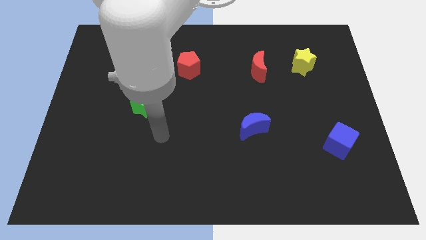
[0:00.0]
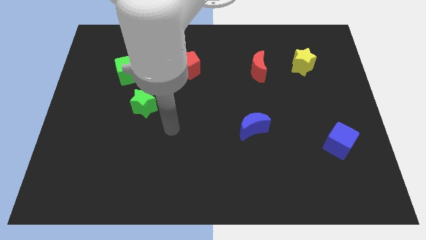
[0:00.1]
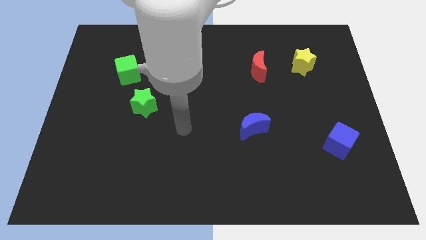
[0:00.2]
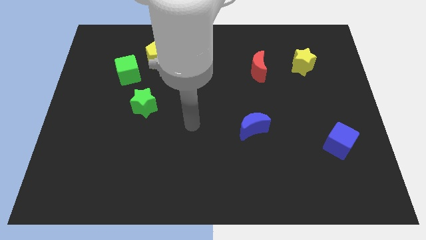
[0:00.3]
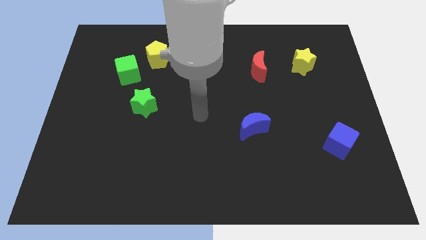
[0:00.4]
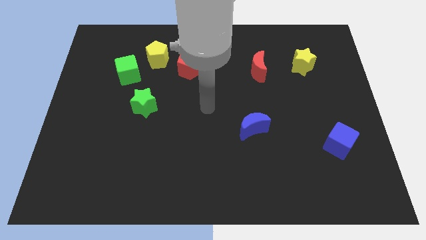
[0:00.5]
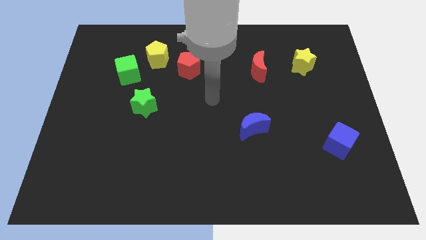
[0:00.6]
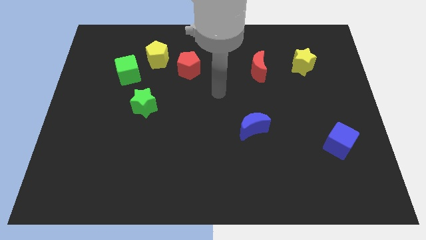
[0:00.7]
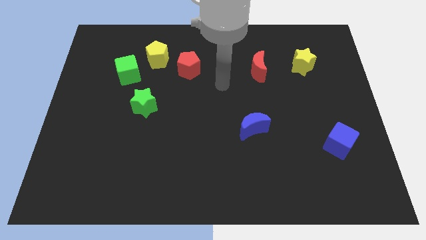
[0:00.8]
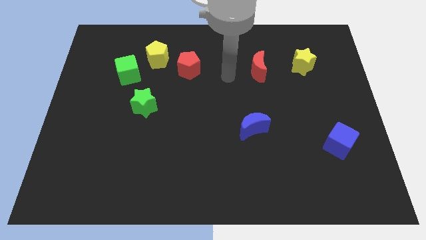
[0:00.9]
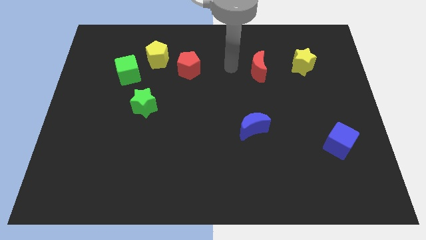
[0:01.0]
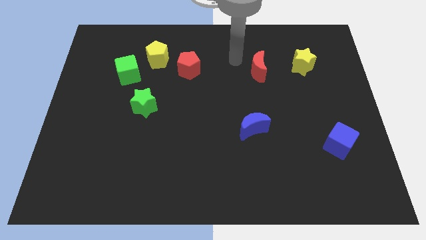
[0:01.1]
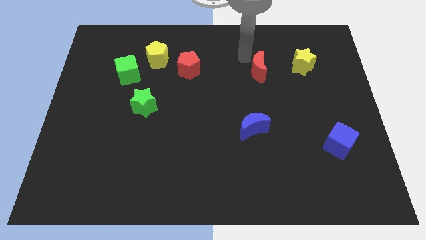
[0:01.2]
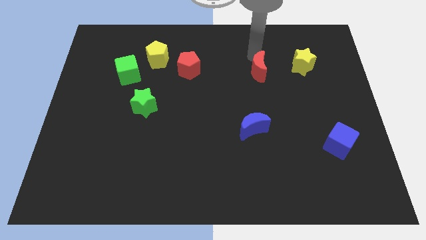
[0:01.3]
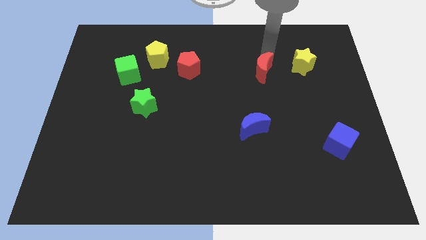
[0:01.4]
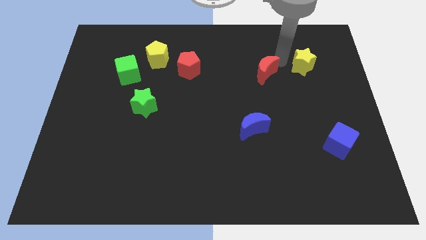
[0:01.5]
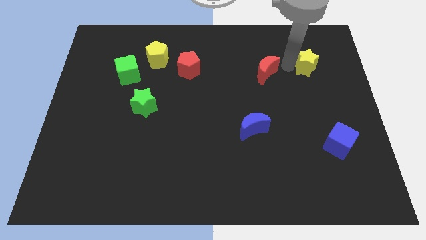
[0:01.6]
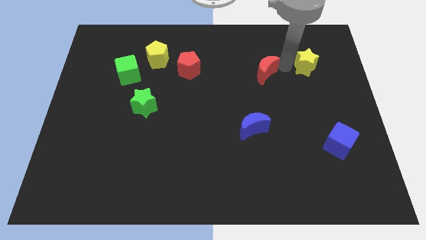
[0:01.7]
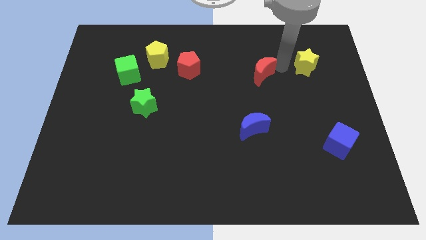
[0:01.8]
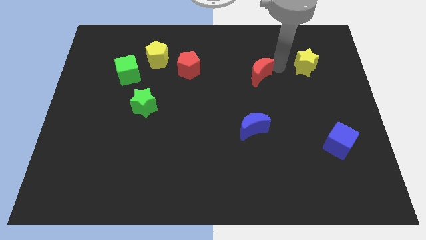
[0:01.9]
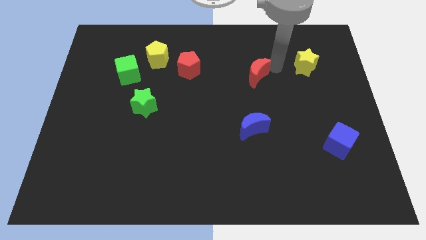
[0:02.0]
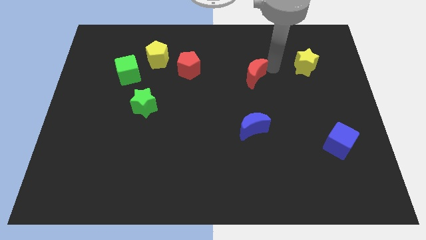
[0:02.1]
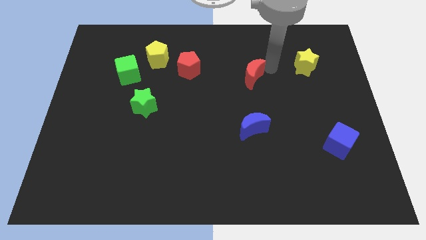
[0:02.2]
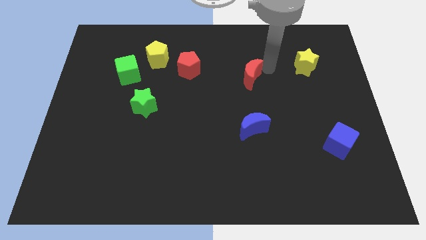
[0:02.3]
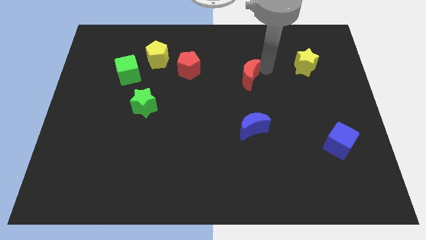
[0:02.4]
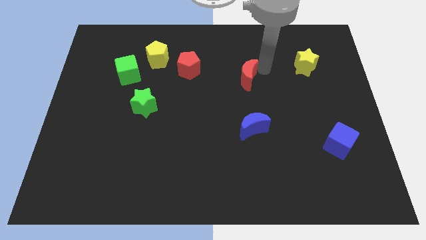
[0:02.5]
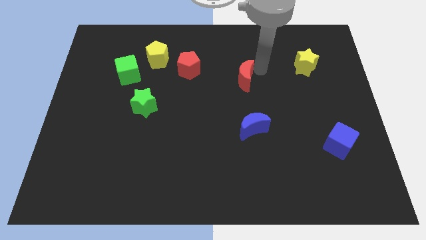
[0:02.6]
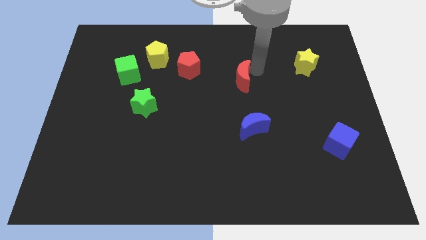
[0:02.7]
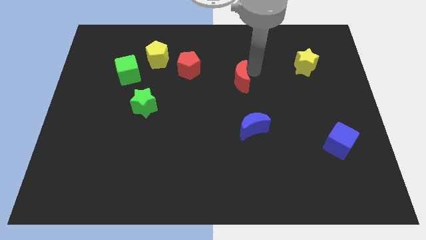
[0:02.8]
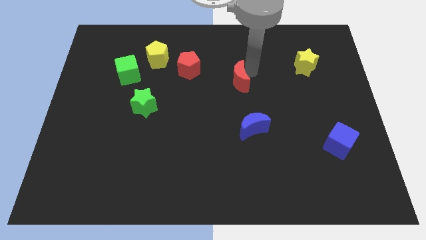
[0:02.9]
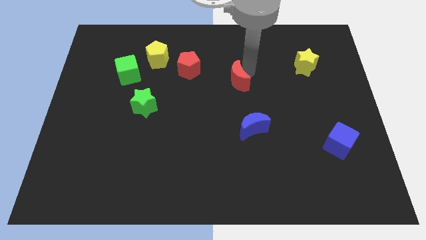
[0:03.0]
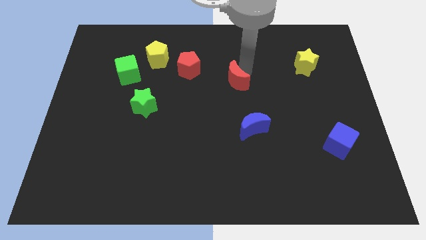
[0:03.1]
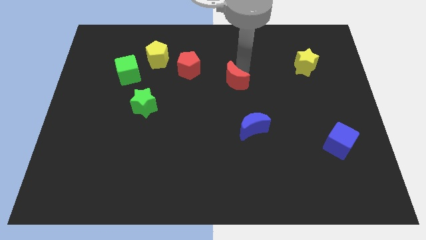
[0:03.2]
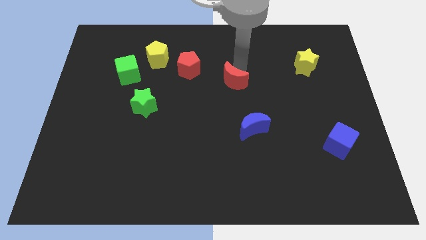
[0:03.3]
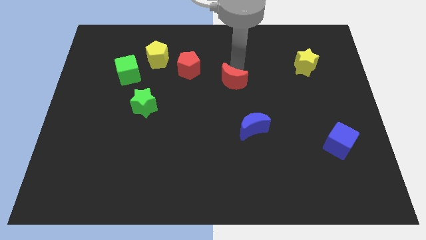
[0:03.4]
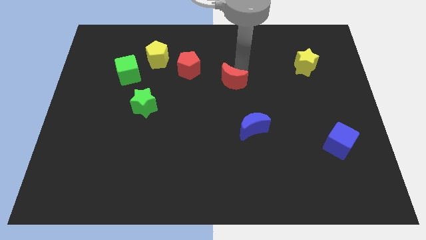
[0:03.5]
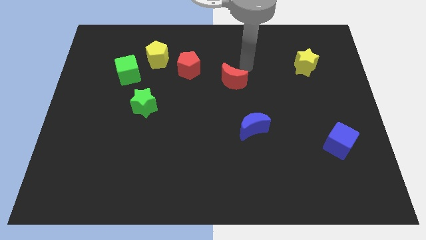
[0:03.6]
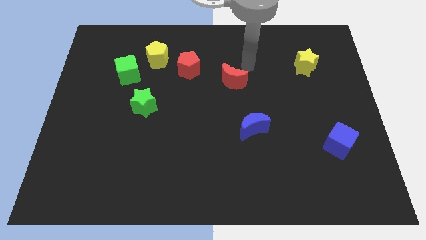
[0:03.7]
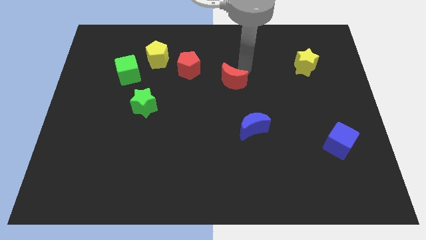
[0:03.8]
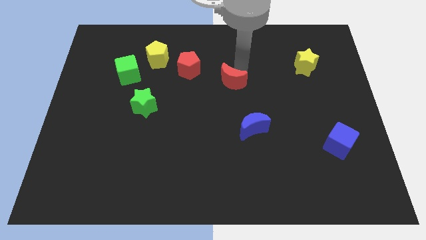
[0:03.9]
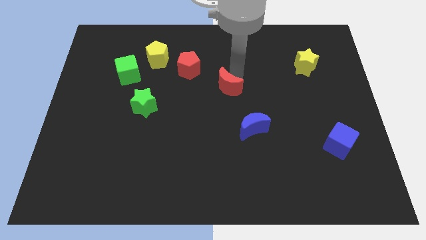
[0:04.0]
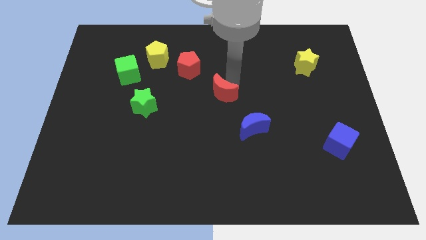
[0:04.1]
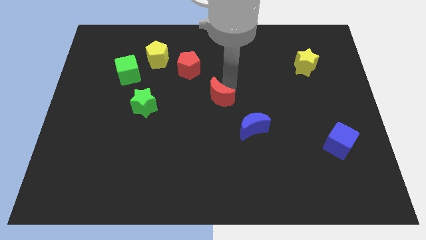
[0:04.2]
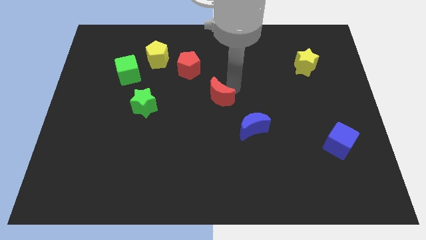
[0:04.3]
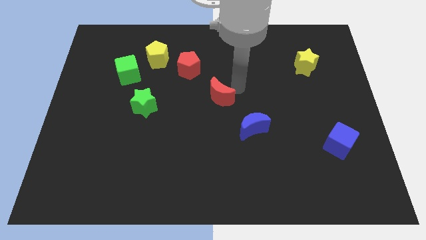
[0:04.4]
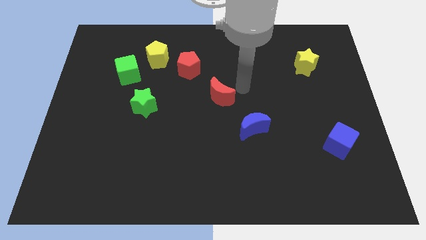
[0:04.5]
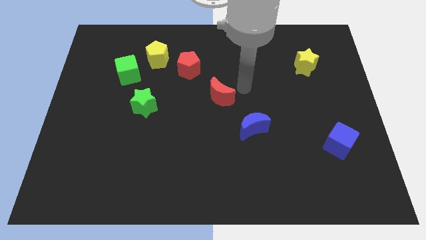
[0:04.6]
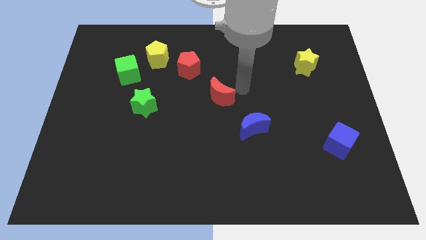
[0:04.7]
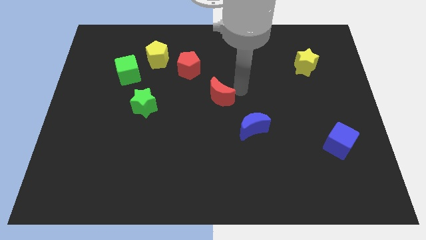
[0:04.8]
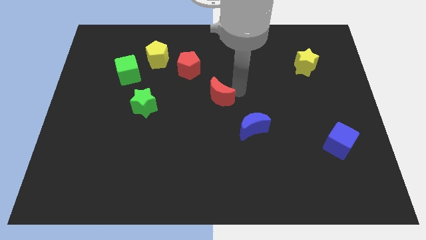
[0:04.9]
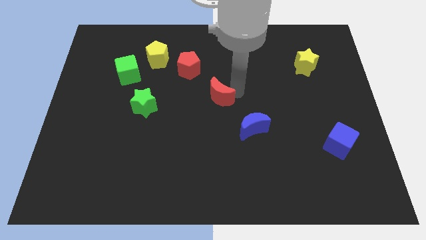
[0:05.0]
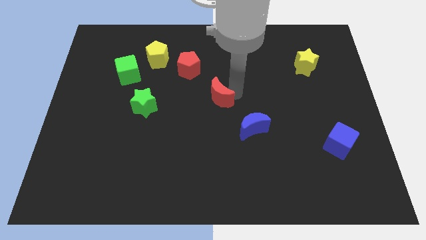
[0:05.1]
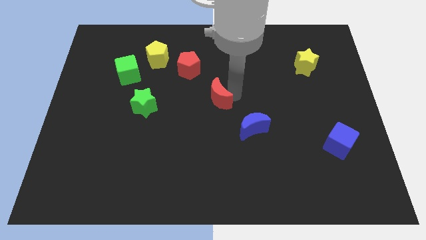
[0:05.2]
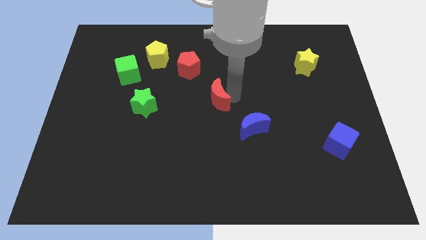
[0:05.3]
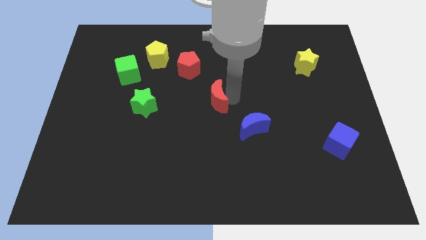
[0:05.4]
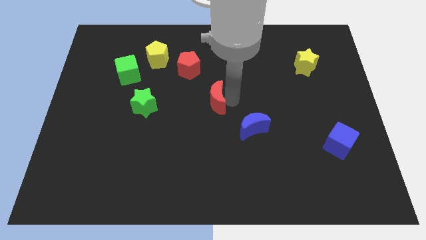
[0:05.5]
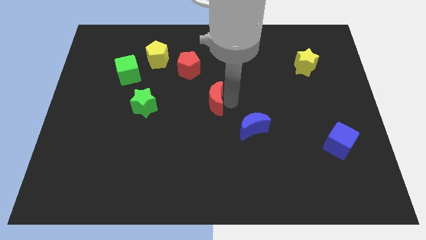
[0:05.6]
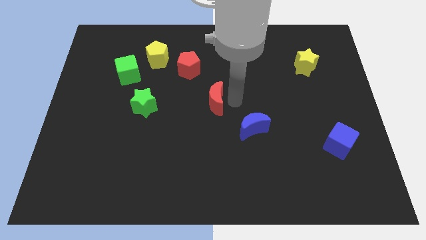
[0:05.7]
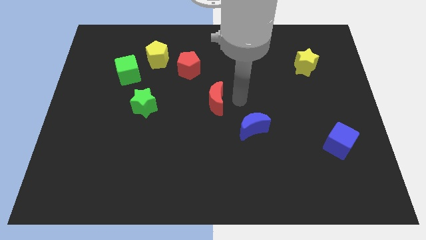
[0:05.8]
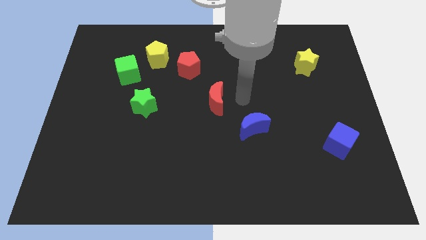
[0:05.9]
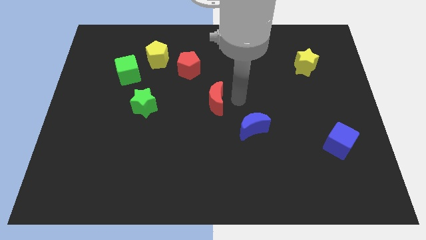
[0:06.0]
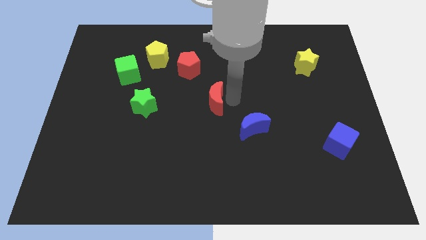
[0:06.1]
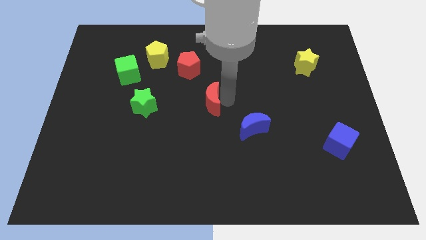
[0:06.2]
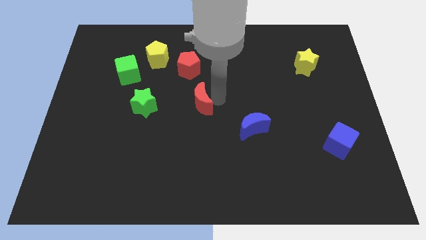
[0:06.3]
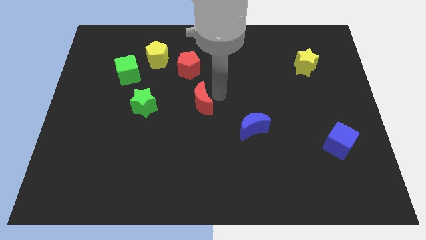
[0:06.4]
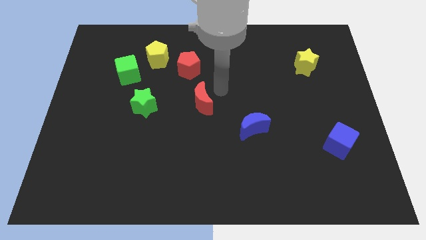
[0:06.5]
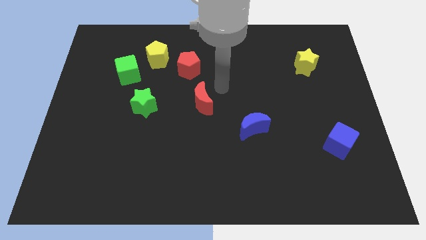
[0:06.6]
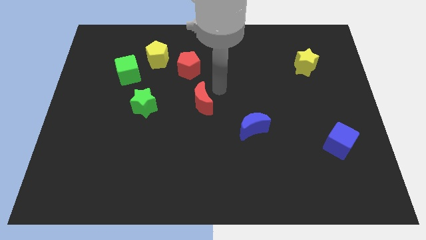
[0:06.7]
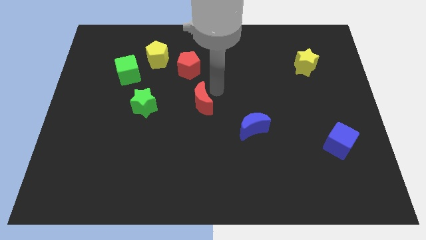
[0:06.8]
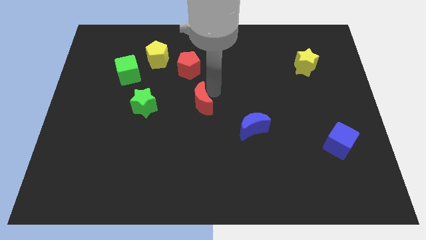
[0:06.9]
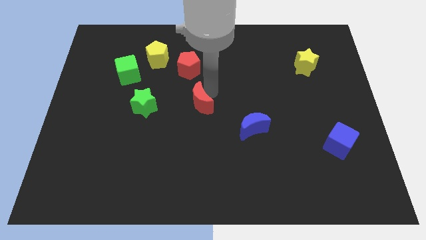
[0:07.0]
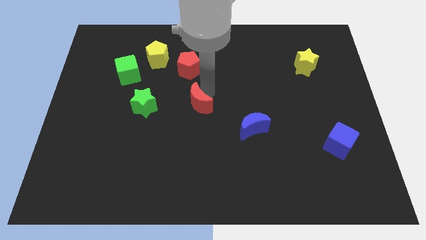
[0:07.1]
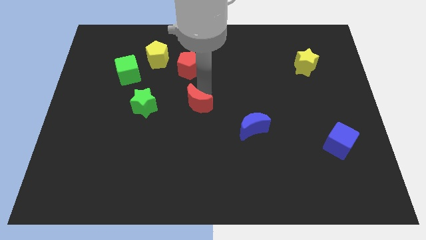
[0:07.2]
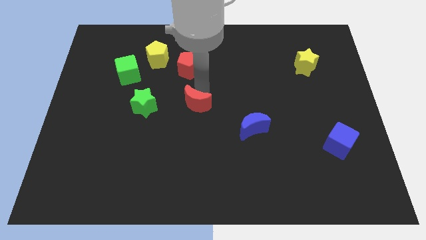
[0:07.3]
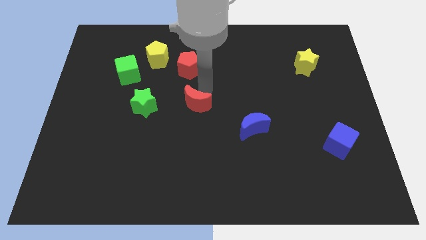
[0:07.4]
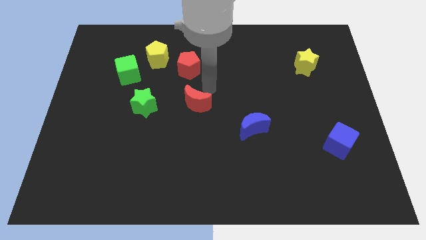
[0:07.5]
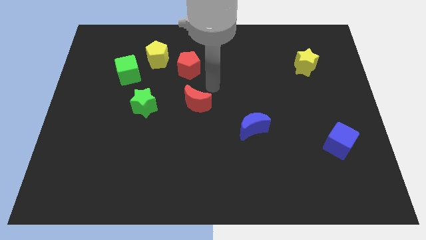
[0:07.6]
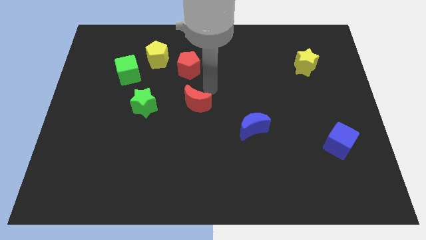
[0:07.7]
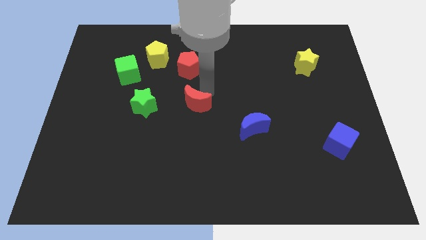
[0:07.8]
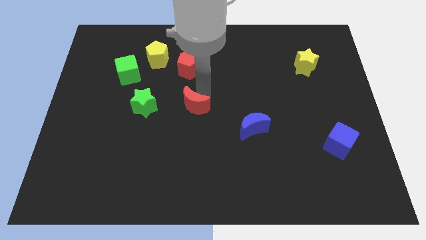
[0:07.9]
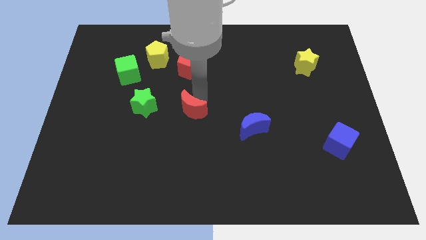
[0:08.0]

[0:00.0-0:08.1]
slide the red moon downwards and then left
